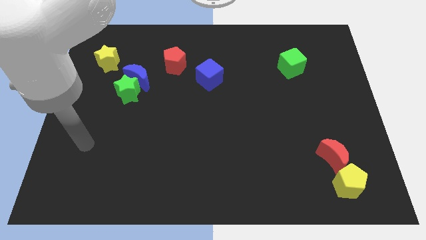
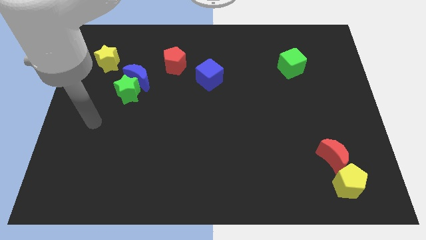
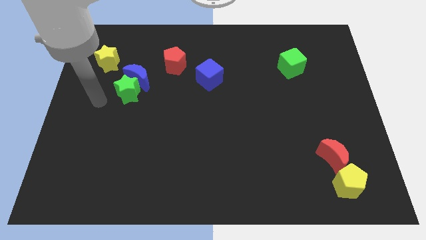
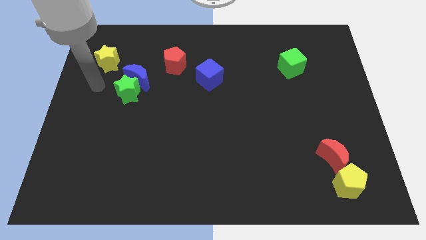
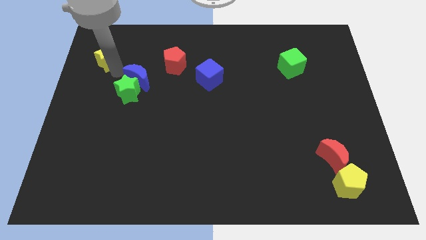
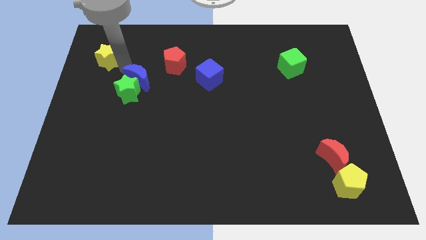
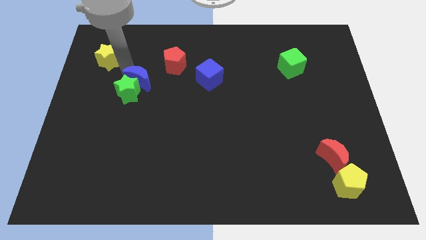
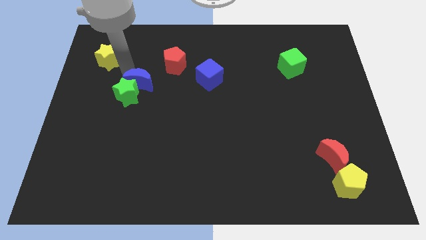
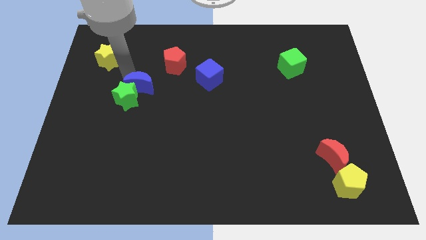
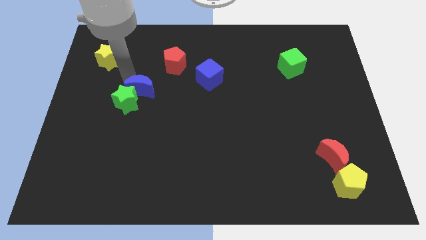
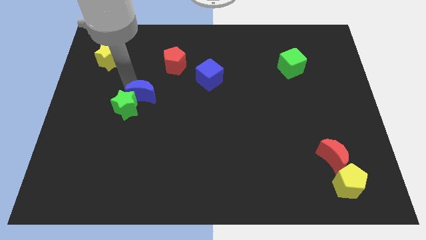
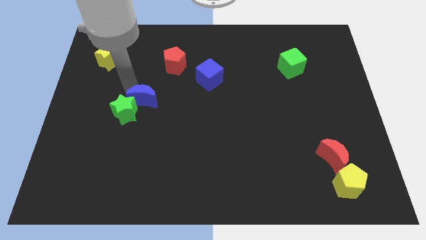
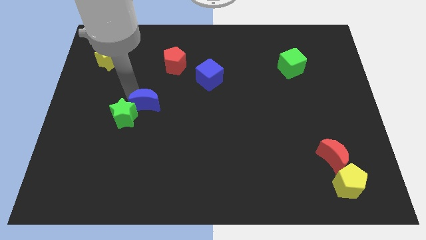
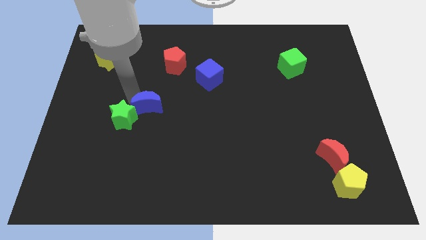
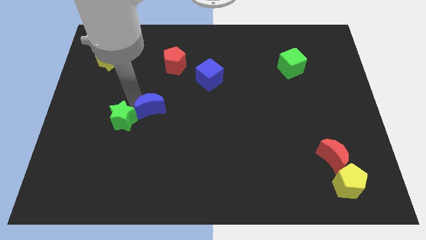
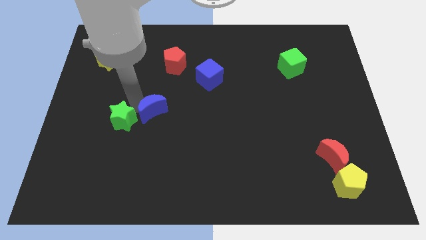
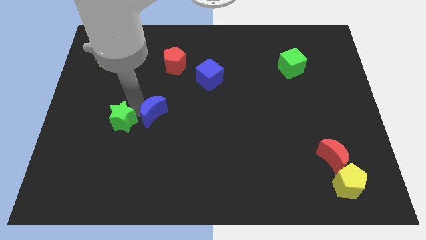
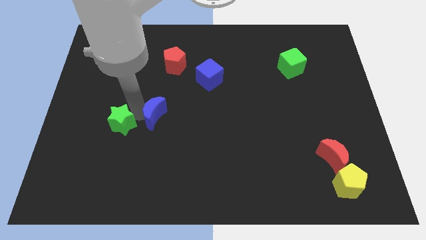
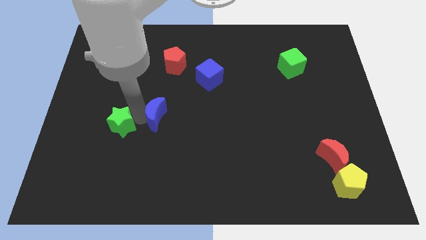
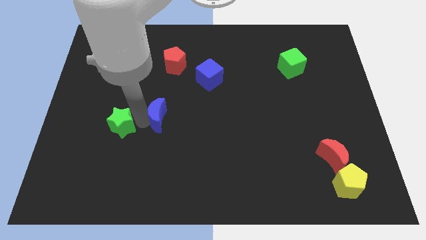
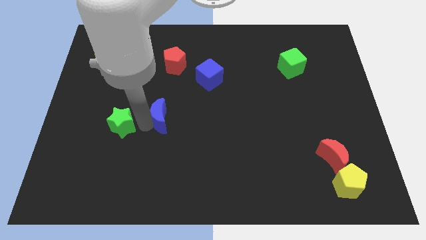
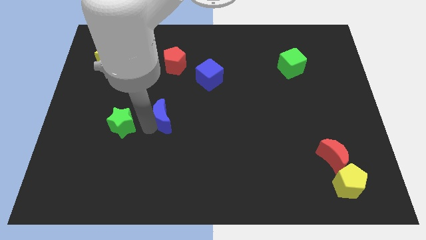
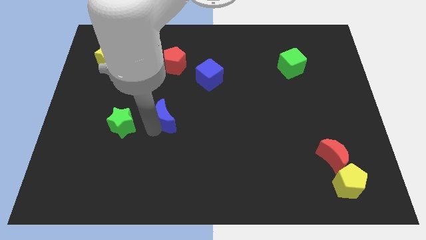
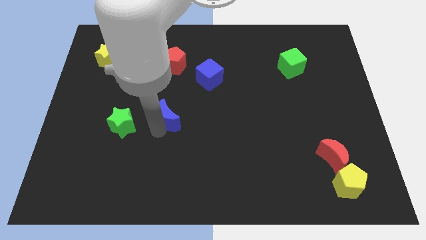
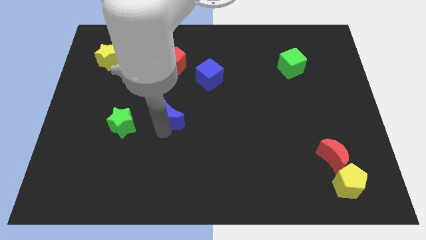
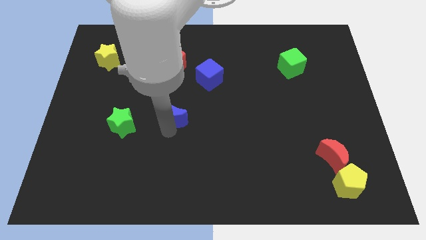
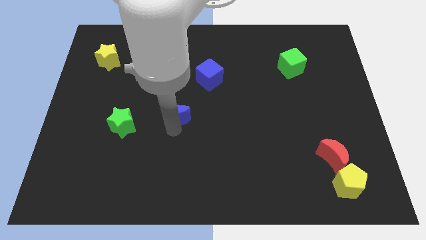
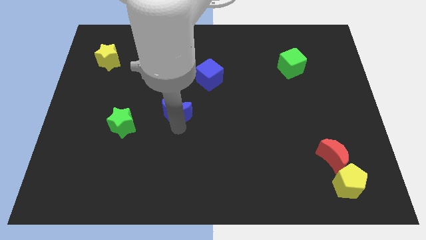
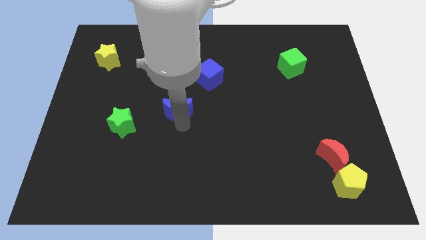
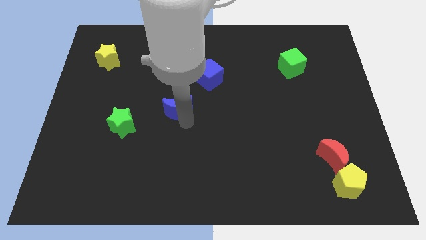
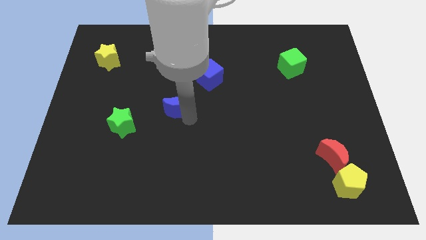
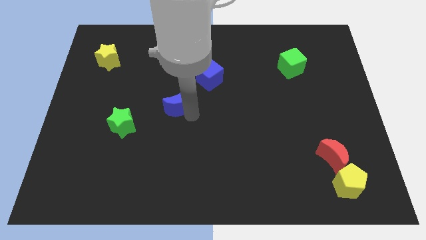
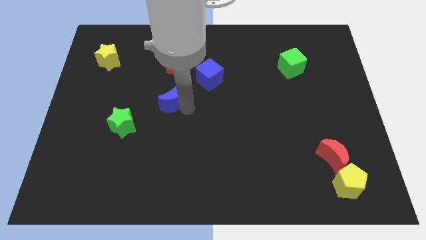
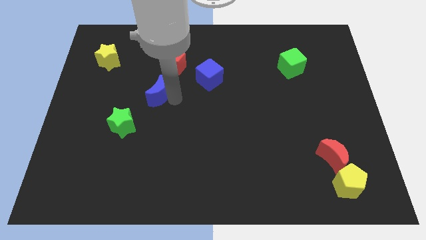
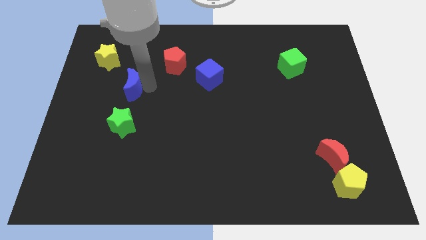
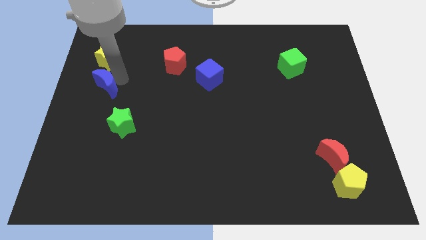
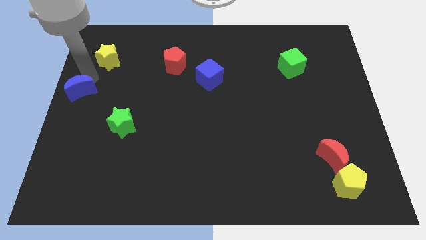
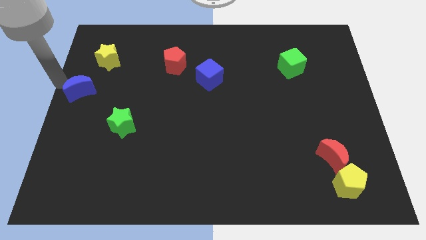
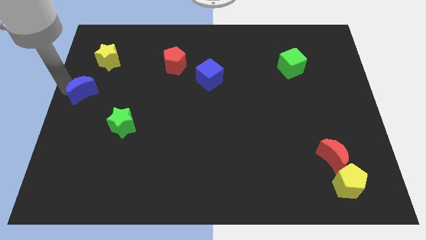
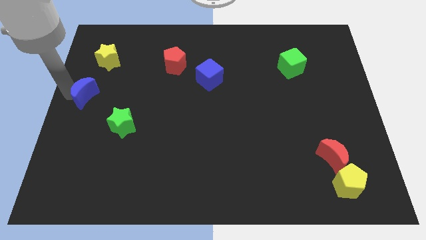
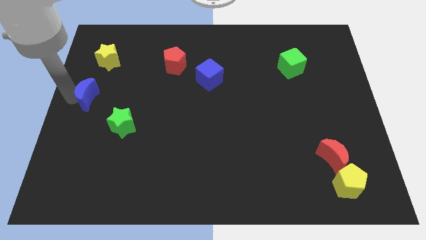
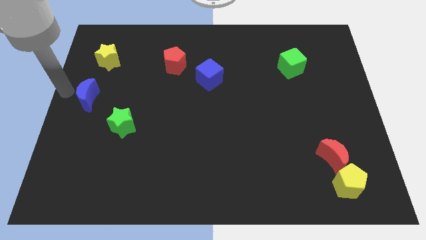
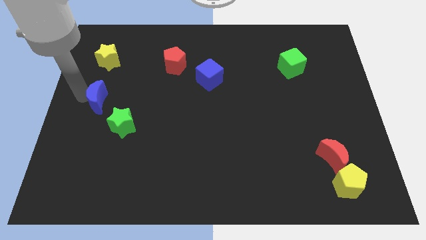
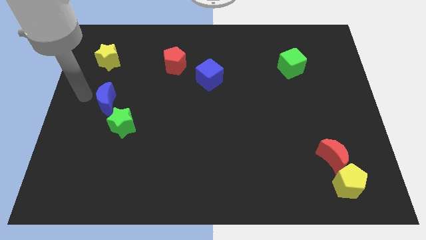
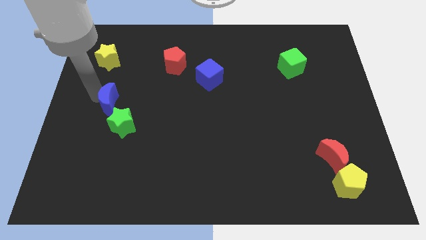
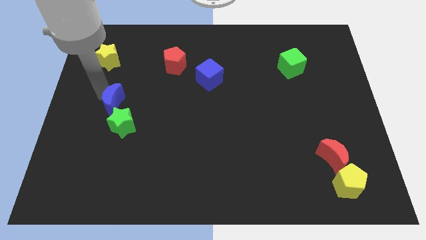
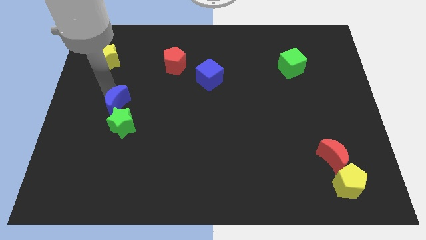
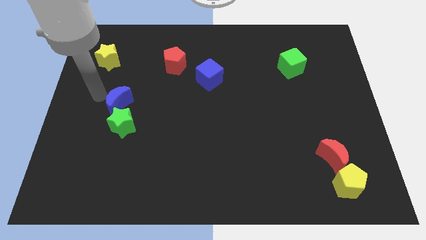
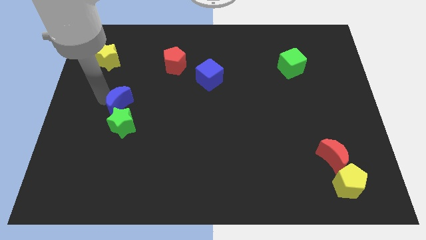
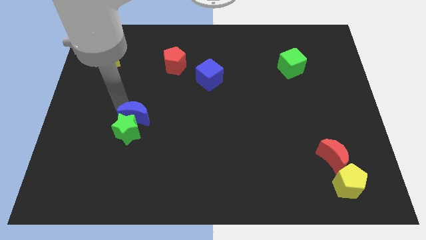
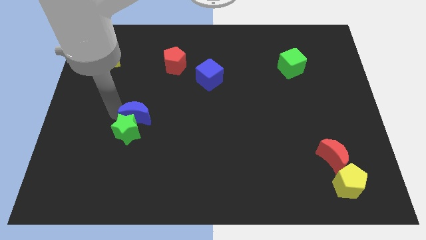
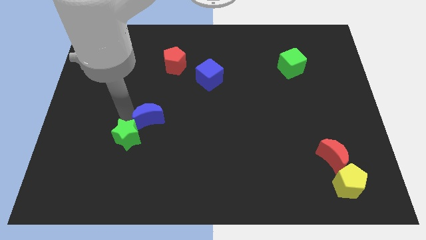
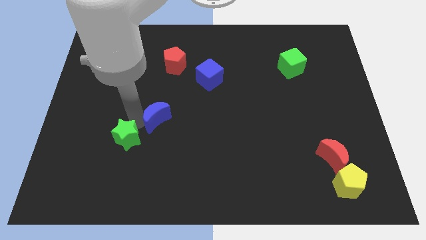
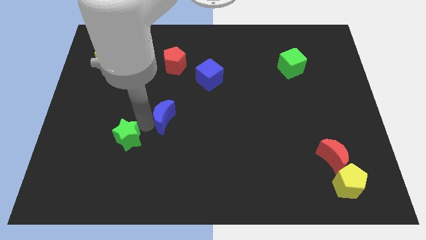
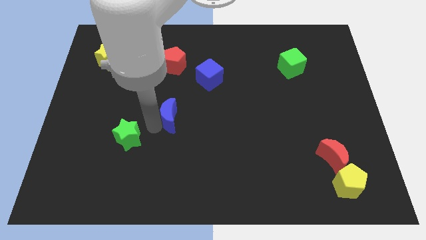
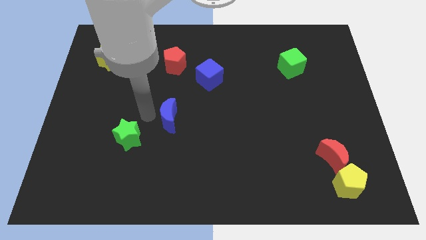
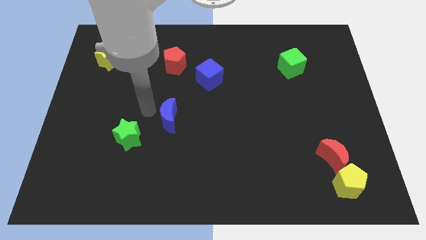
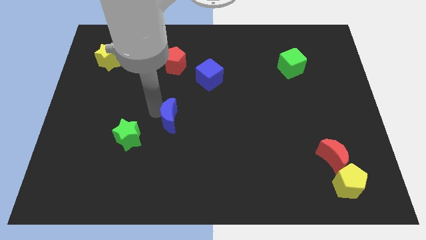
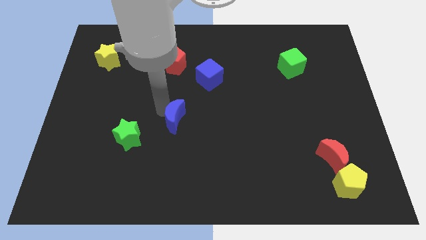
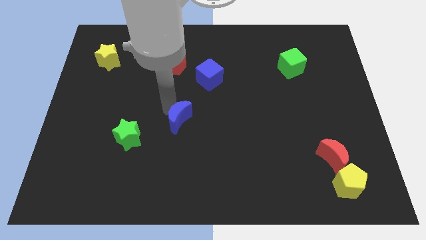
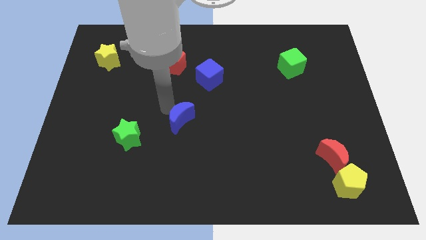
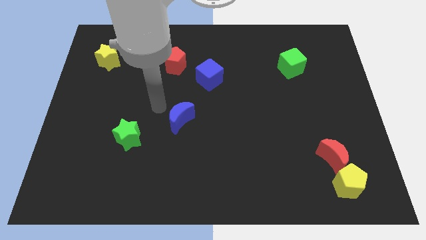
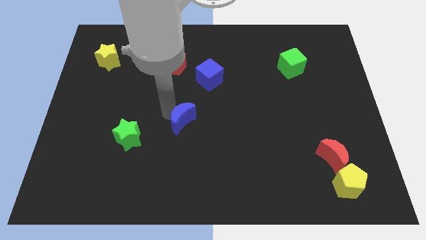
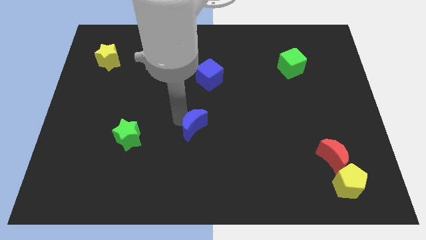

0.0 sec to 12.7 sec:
slide the blue moon downwards and right

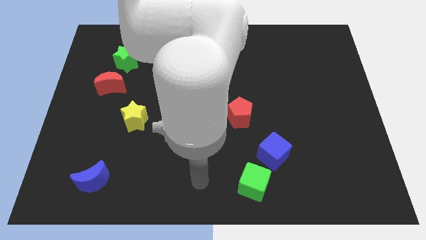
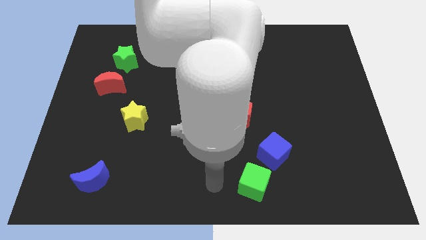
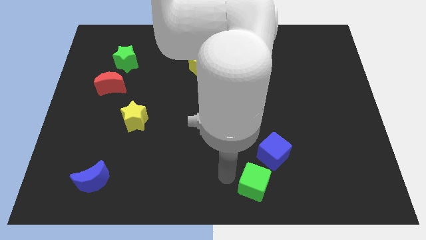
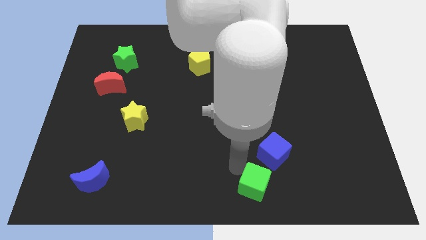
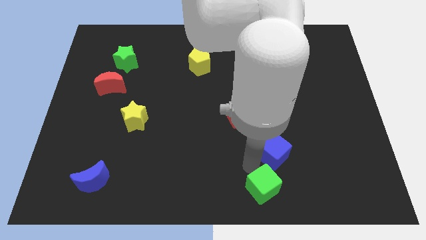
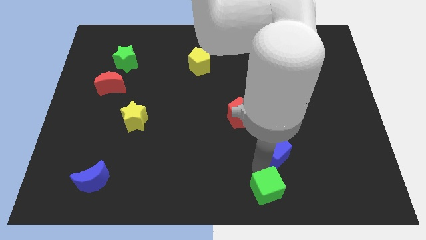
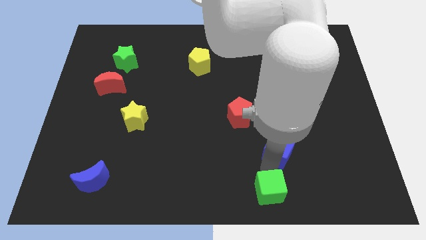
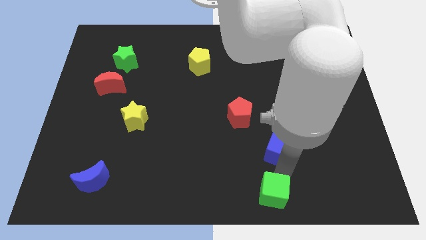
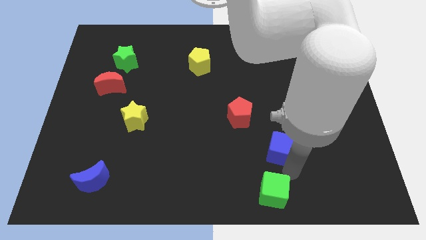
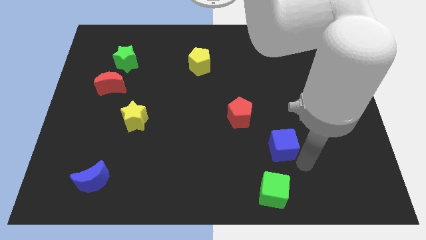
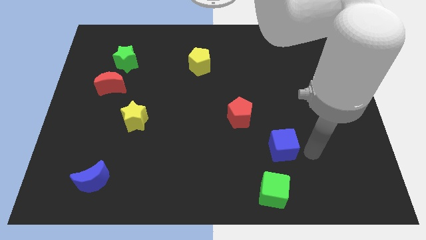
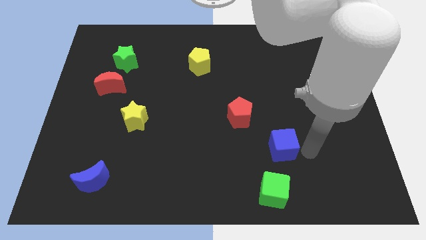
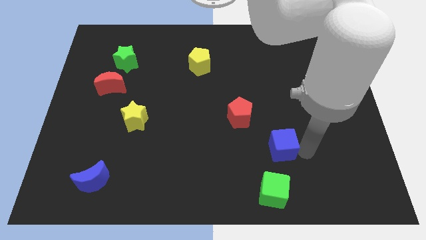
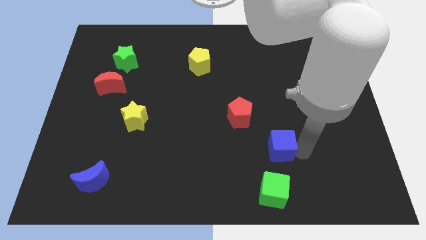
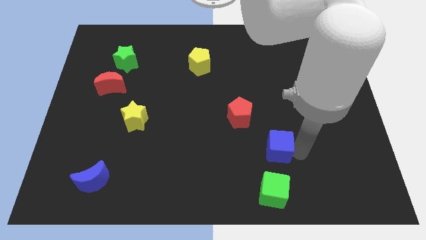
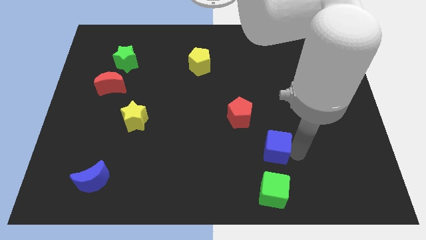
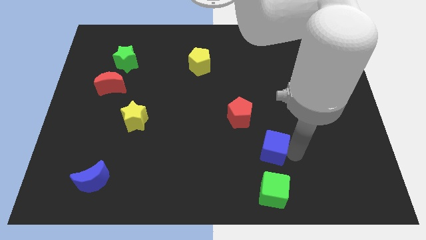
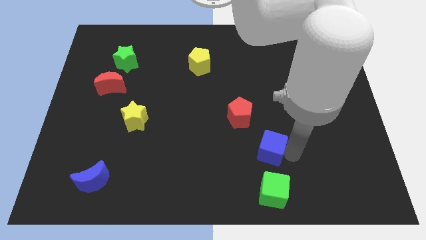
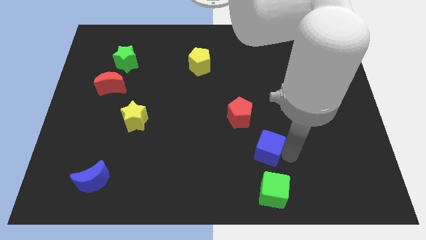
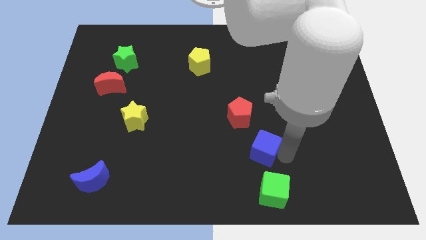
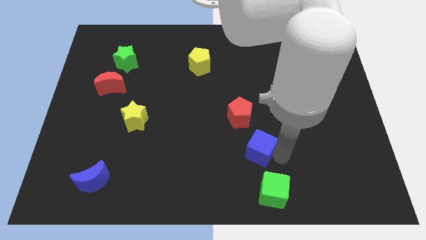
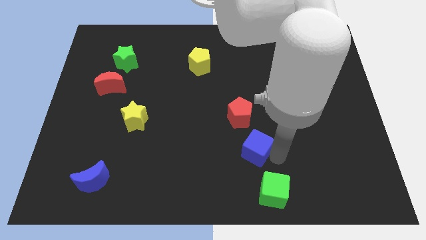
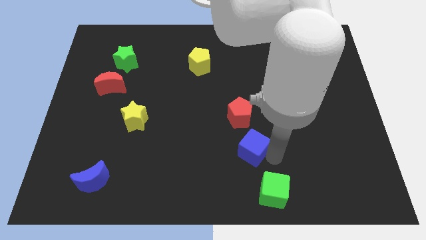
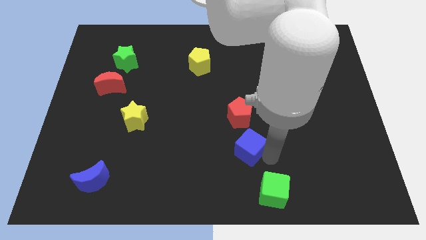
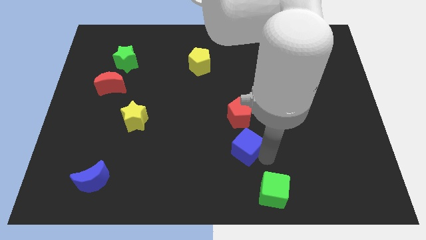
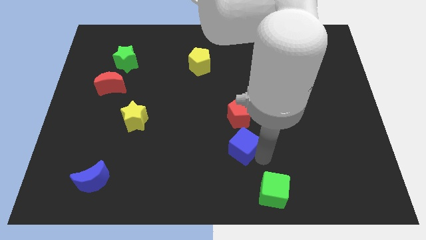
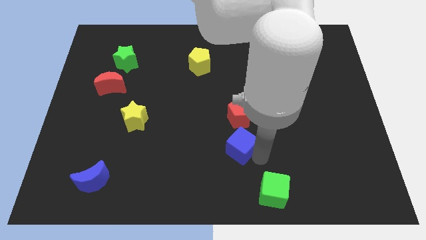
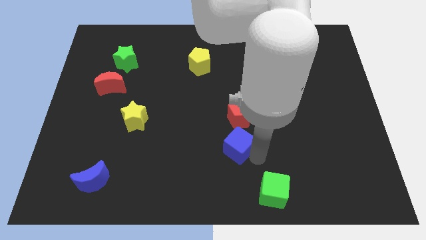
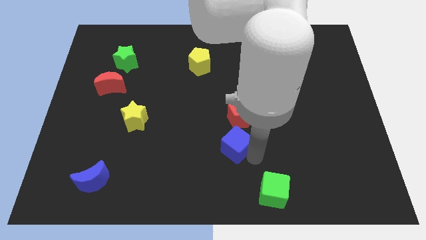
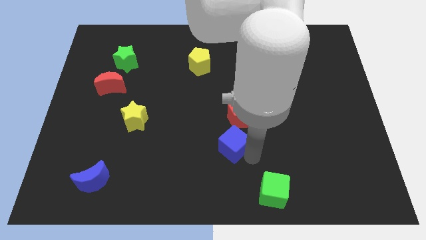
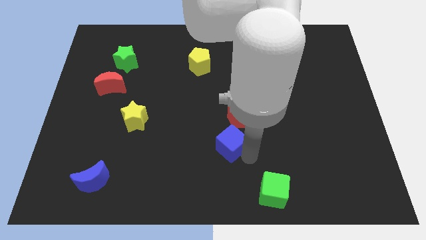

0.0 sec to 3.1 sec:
move the blue cube a little bit upwards and to the left
